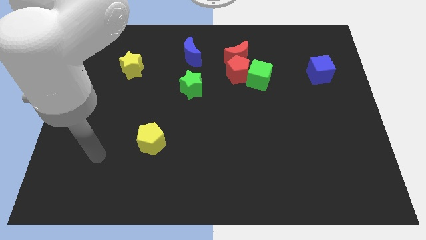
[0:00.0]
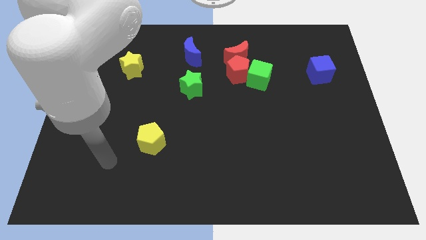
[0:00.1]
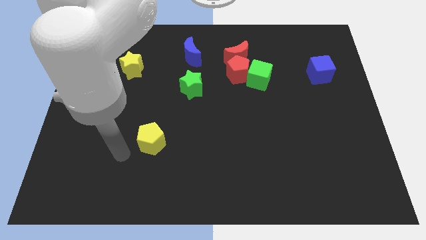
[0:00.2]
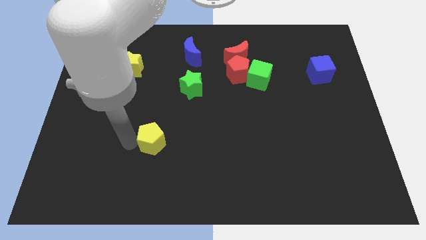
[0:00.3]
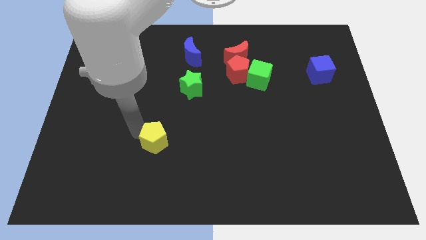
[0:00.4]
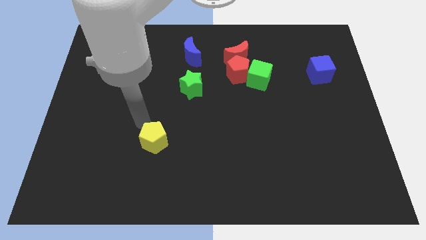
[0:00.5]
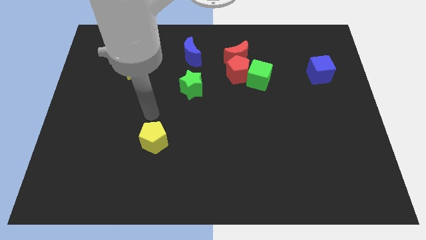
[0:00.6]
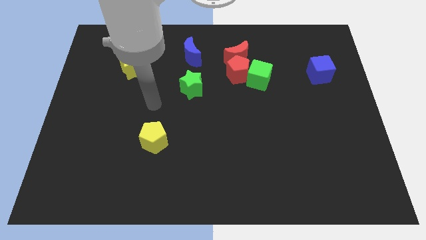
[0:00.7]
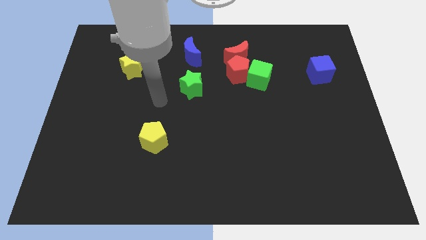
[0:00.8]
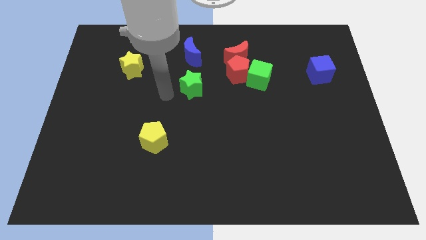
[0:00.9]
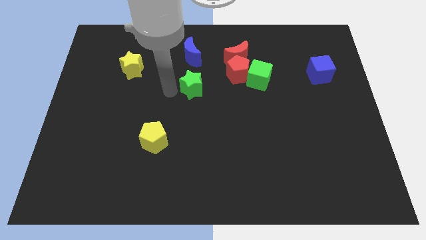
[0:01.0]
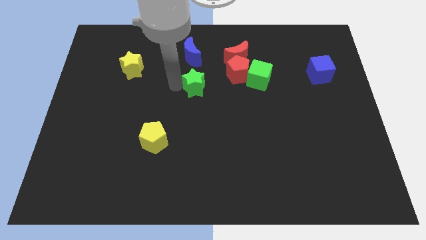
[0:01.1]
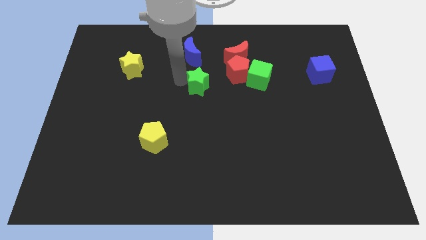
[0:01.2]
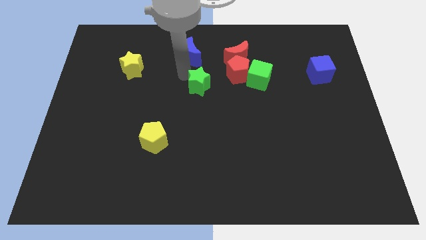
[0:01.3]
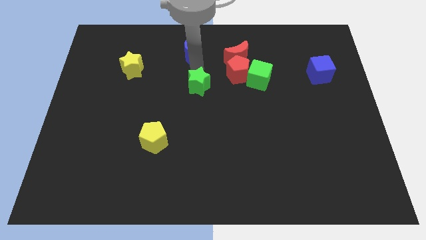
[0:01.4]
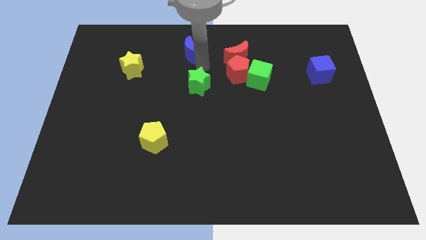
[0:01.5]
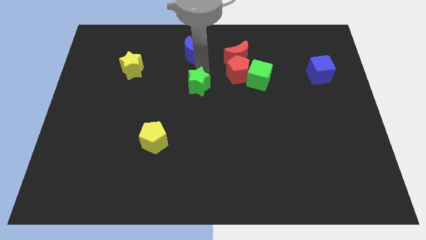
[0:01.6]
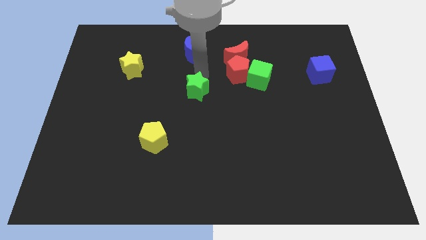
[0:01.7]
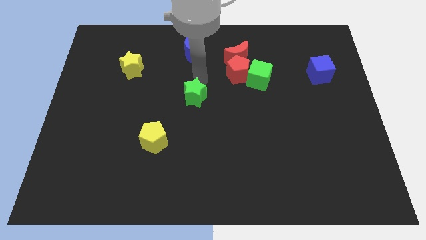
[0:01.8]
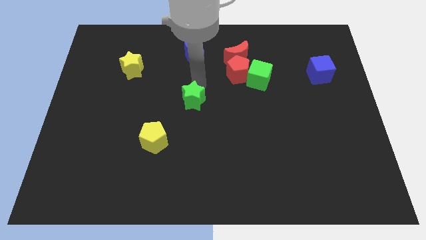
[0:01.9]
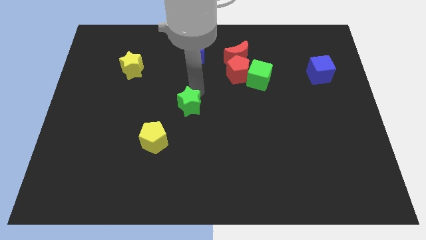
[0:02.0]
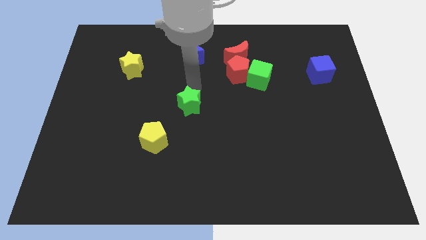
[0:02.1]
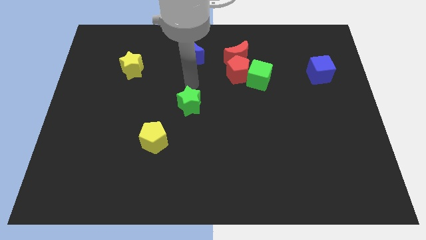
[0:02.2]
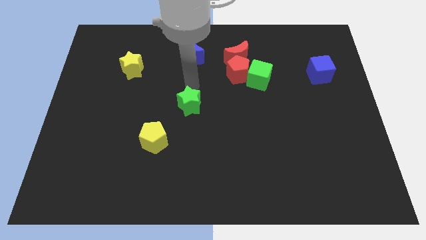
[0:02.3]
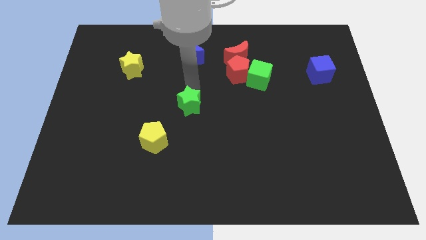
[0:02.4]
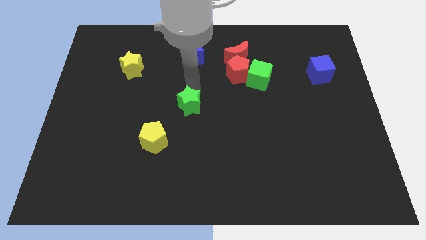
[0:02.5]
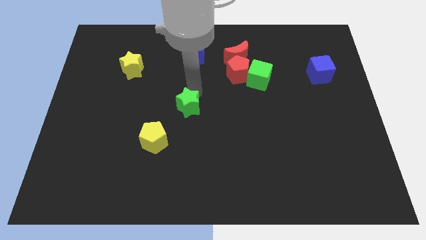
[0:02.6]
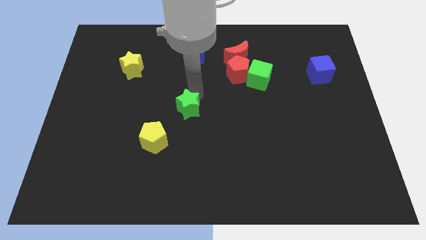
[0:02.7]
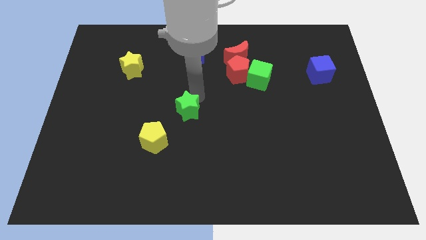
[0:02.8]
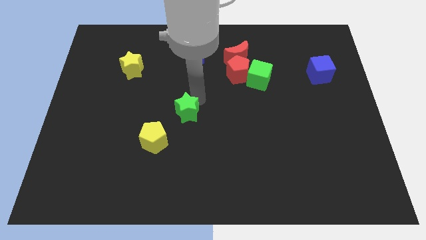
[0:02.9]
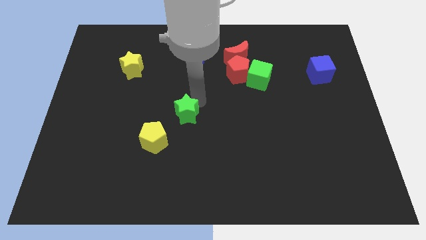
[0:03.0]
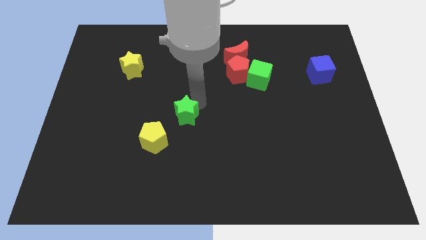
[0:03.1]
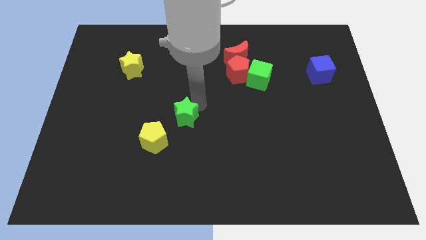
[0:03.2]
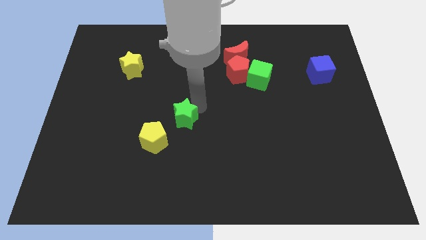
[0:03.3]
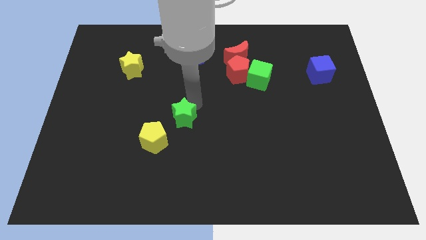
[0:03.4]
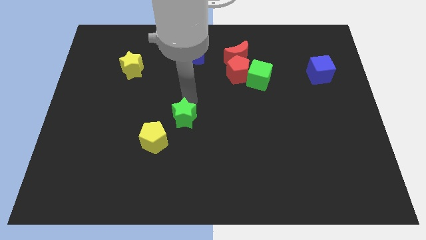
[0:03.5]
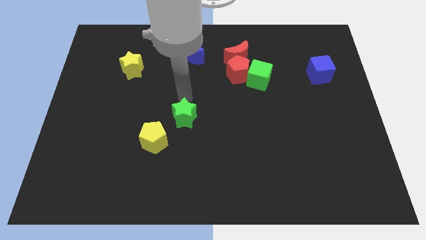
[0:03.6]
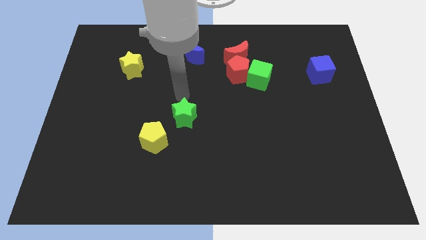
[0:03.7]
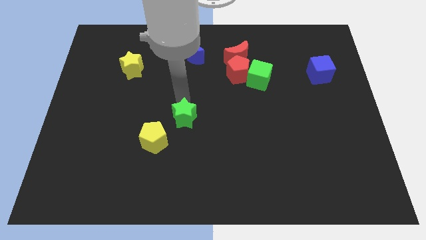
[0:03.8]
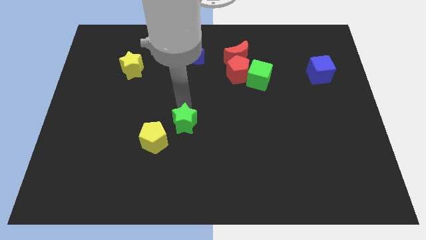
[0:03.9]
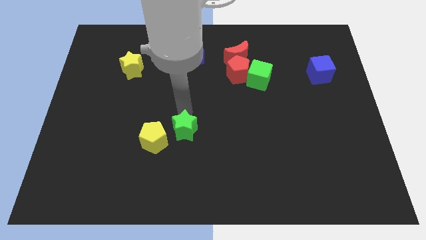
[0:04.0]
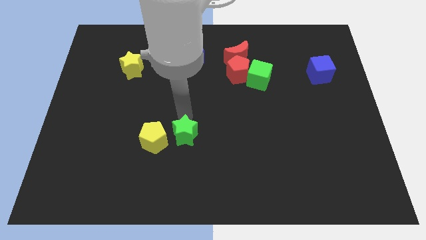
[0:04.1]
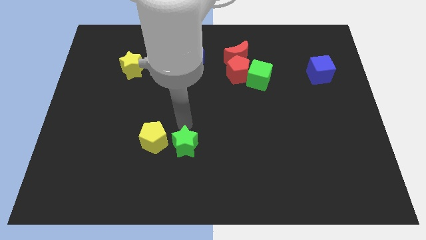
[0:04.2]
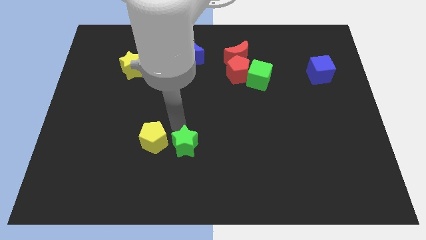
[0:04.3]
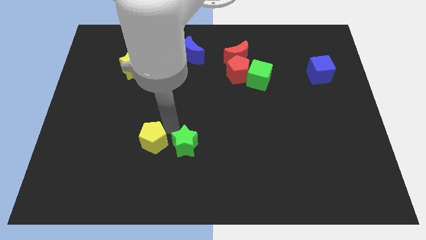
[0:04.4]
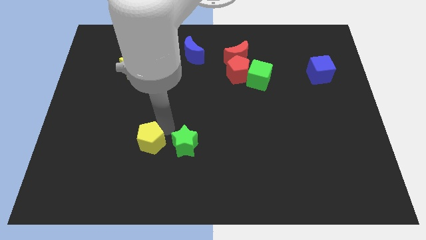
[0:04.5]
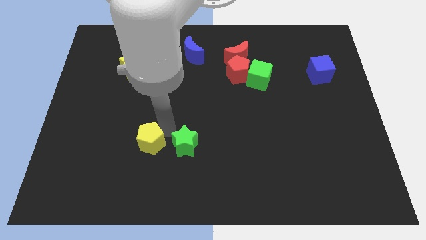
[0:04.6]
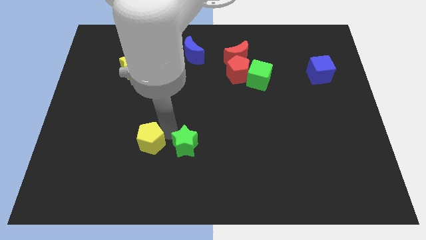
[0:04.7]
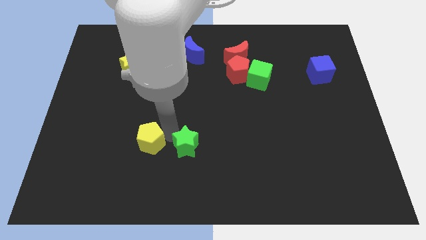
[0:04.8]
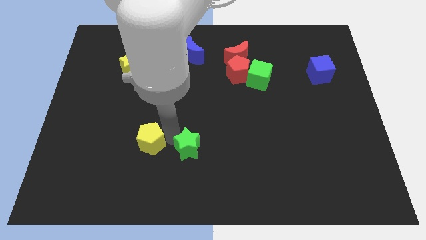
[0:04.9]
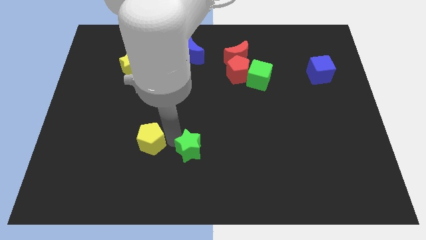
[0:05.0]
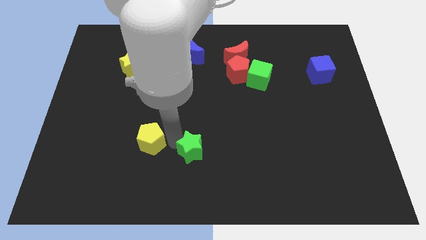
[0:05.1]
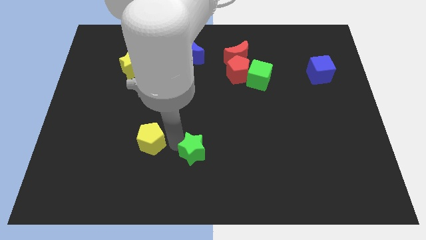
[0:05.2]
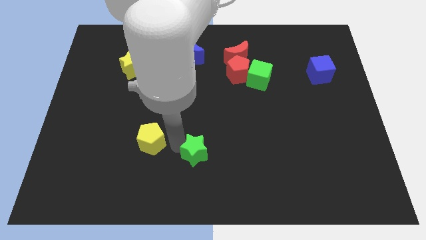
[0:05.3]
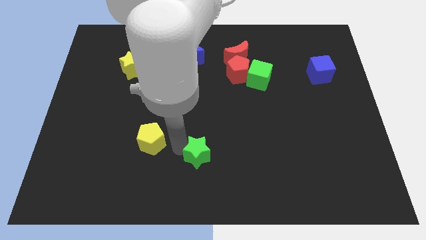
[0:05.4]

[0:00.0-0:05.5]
slide the green star to the bottom side

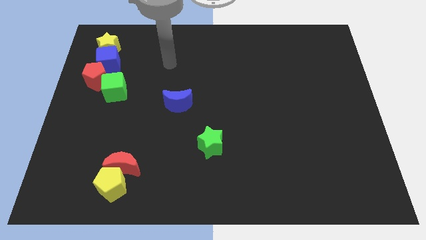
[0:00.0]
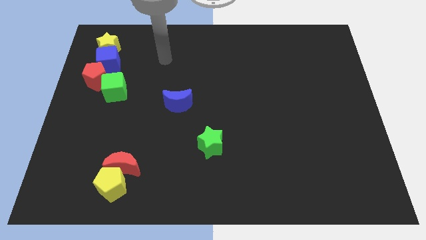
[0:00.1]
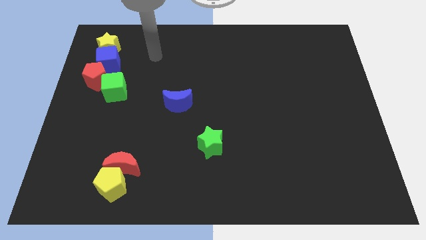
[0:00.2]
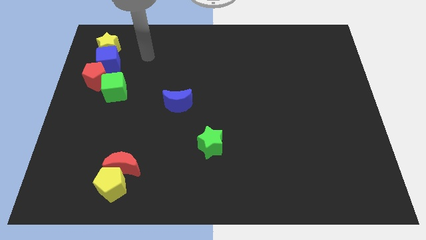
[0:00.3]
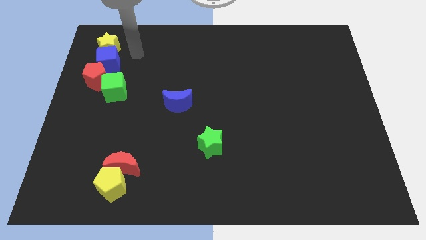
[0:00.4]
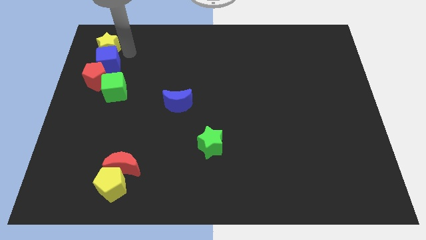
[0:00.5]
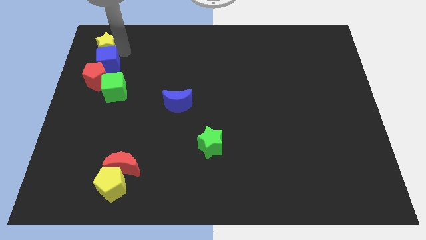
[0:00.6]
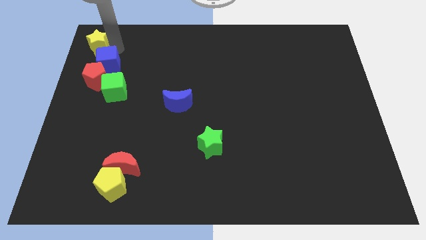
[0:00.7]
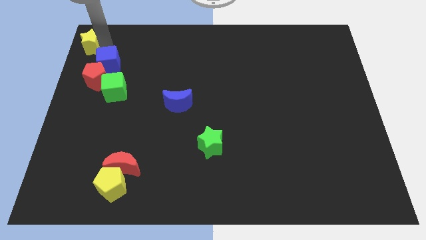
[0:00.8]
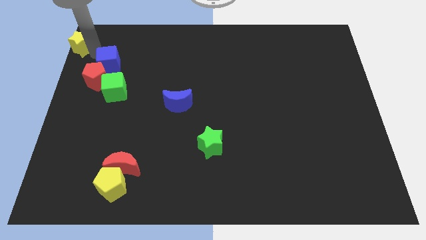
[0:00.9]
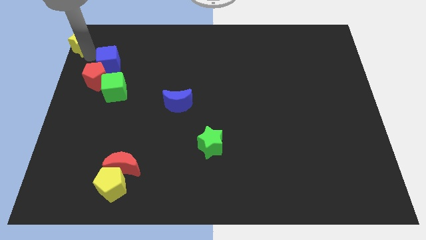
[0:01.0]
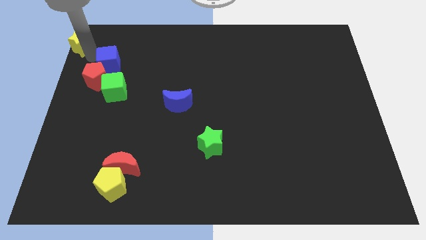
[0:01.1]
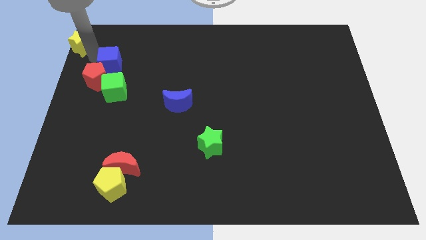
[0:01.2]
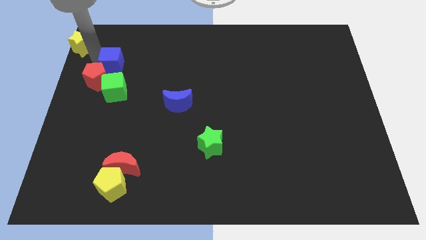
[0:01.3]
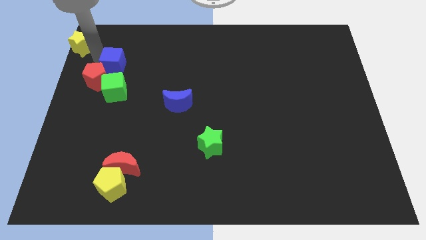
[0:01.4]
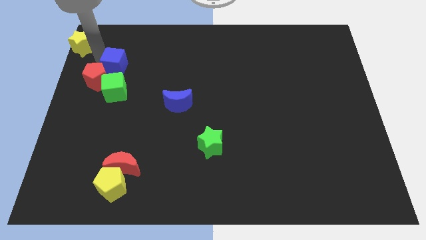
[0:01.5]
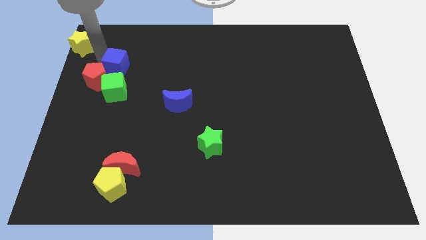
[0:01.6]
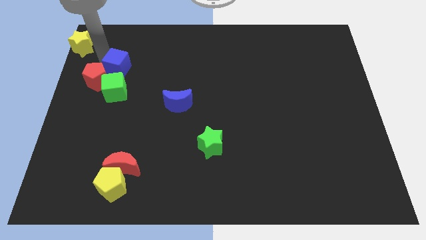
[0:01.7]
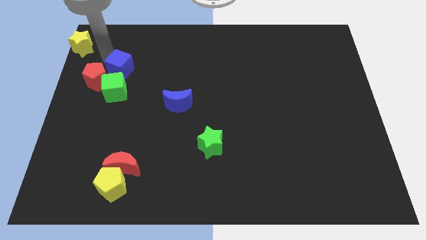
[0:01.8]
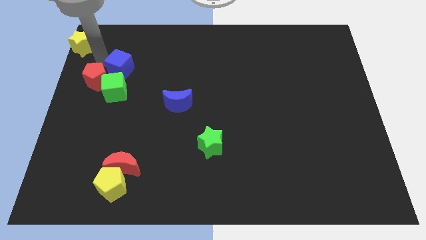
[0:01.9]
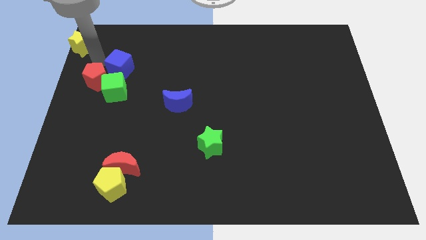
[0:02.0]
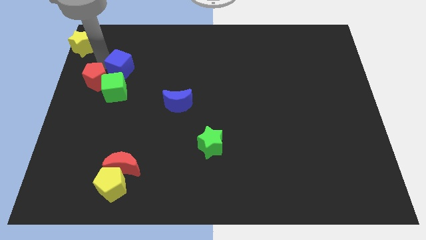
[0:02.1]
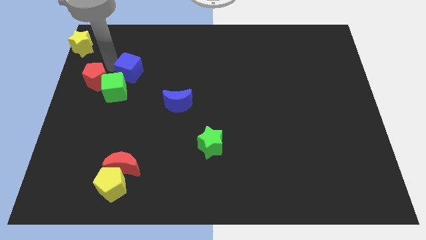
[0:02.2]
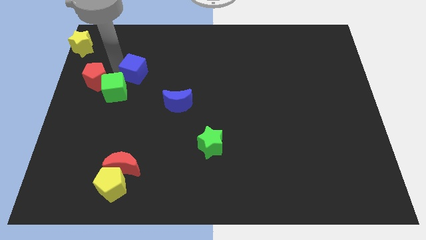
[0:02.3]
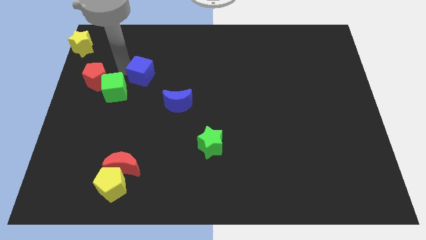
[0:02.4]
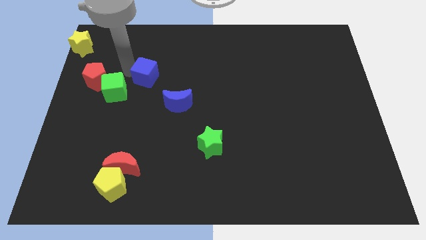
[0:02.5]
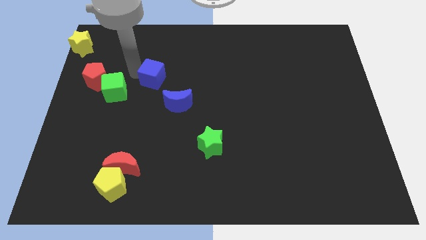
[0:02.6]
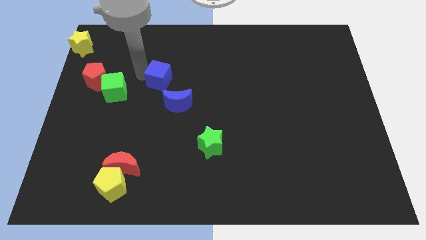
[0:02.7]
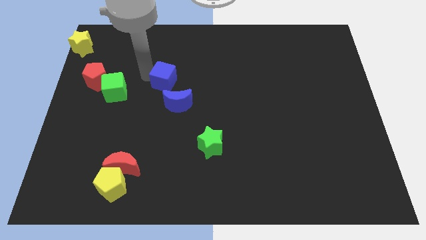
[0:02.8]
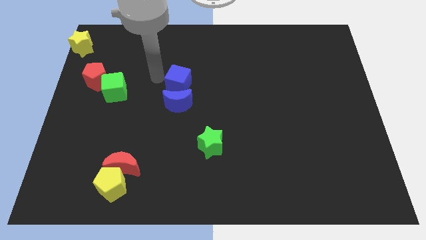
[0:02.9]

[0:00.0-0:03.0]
put the blue cube to the center
